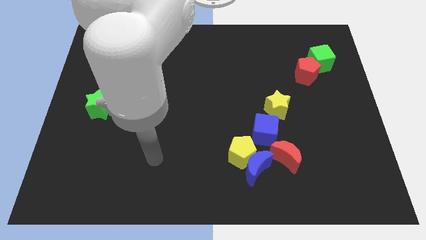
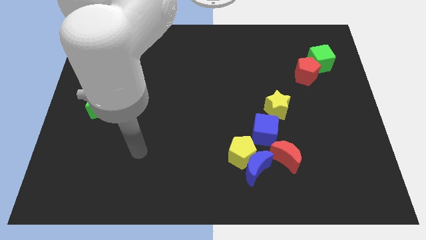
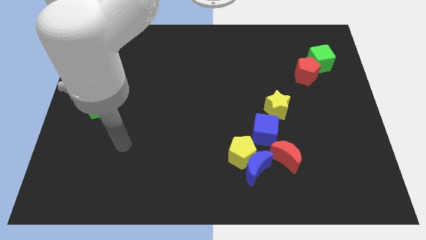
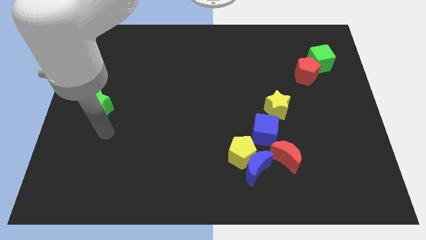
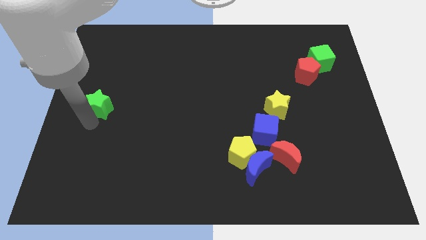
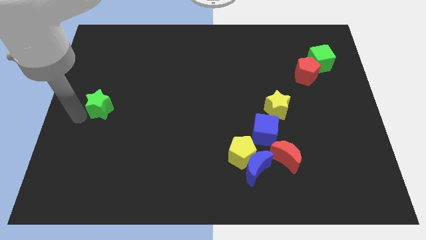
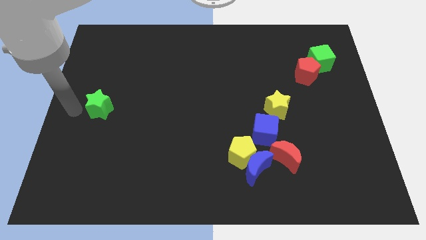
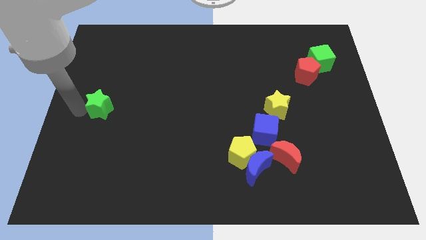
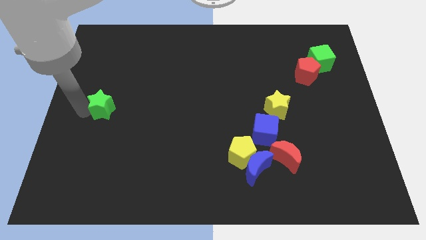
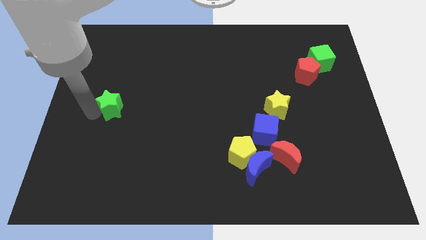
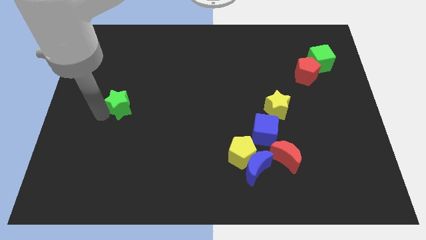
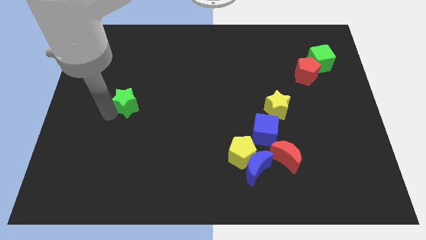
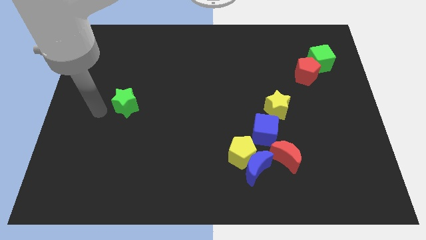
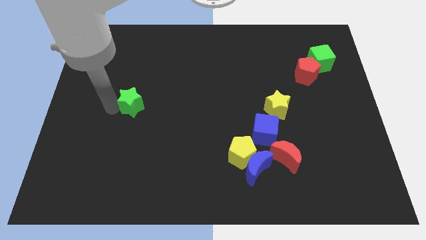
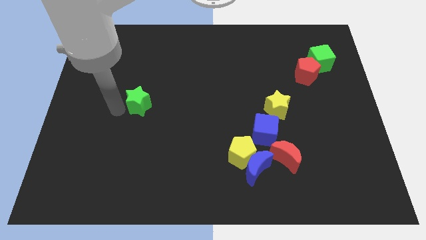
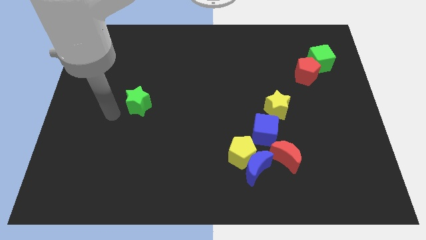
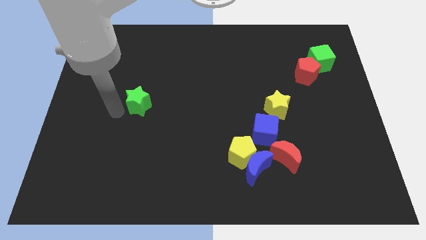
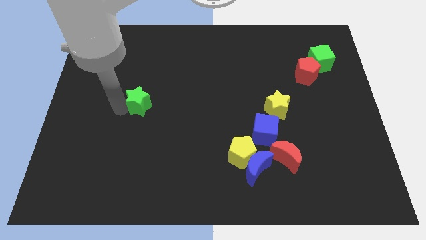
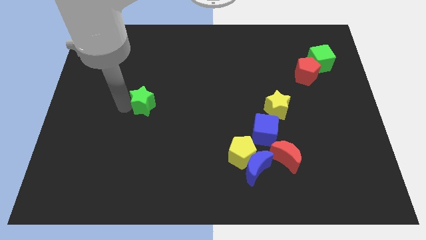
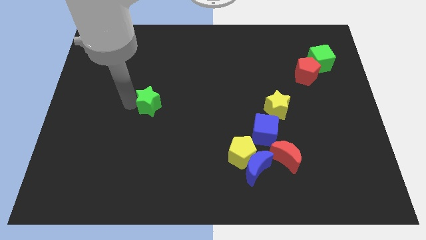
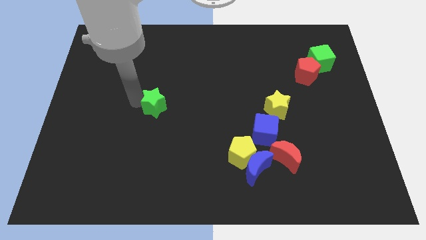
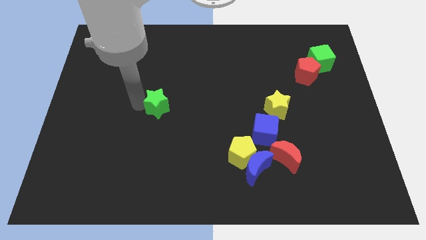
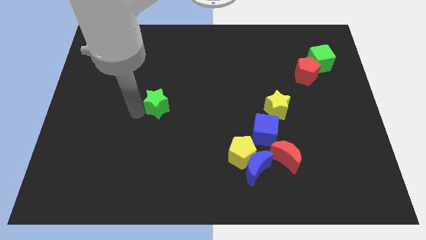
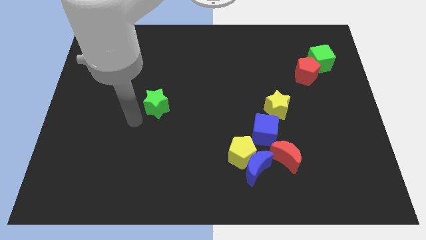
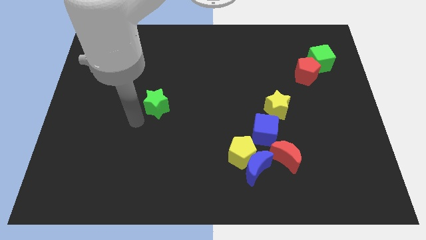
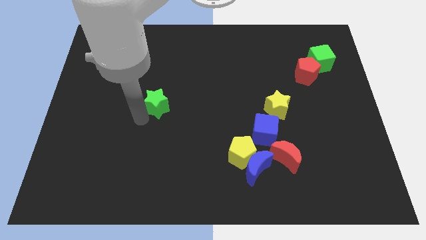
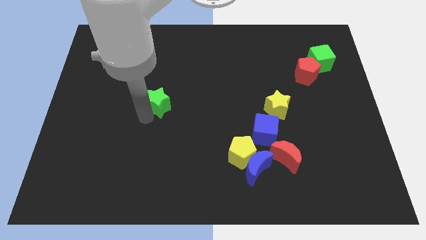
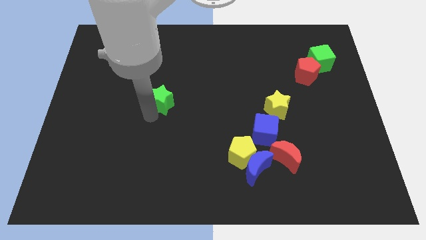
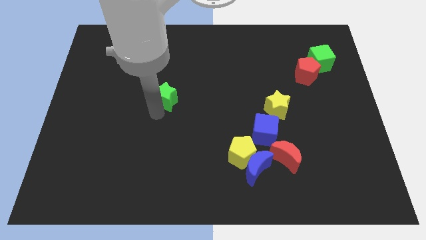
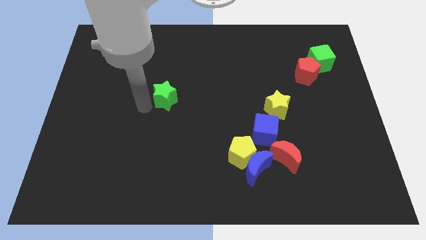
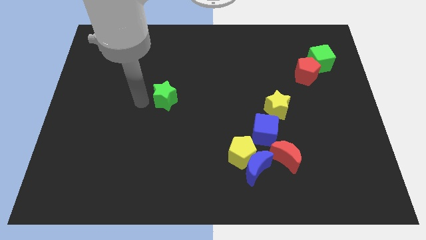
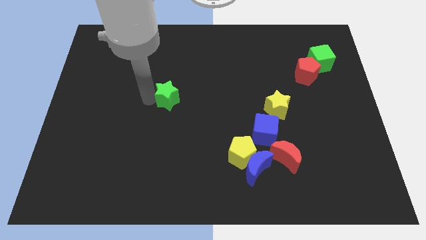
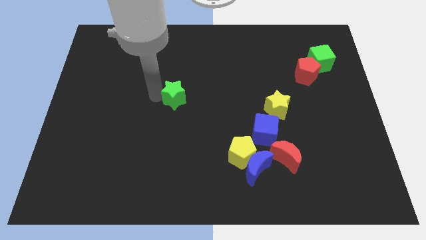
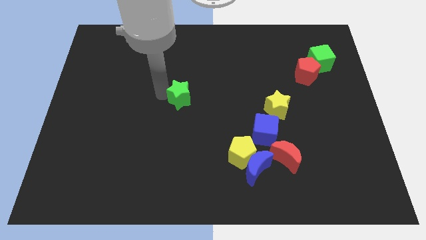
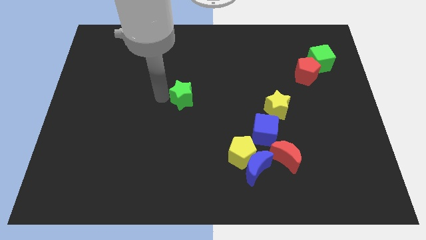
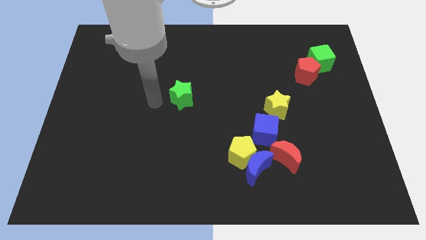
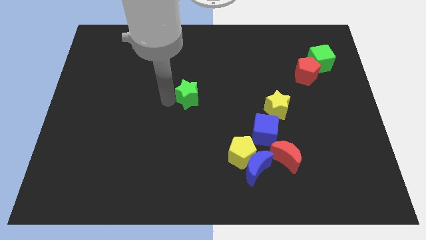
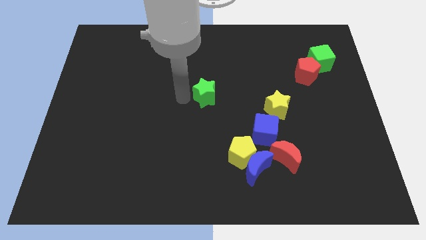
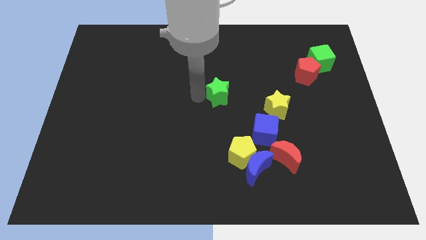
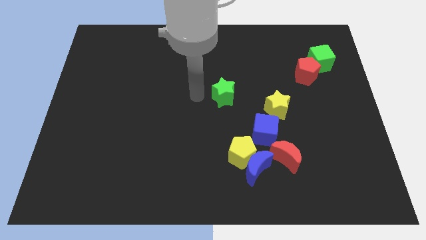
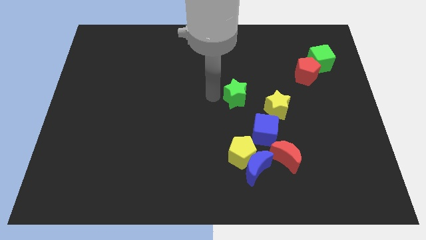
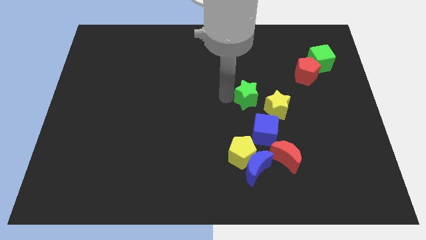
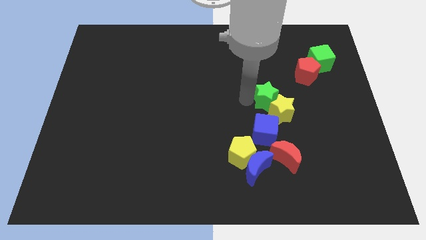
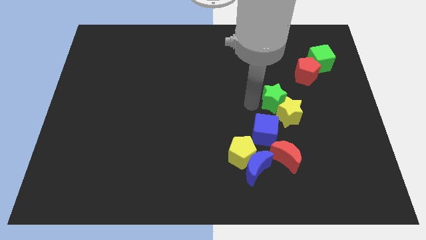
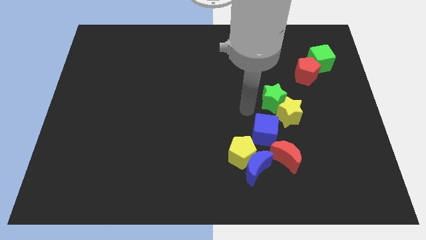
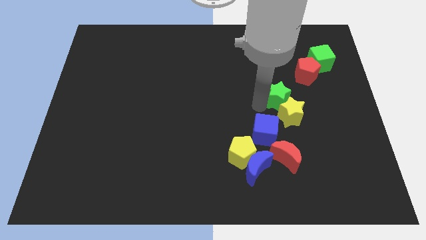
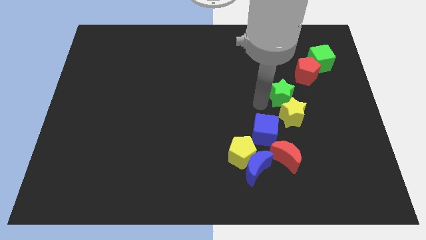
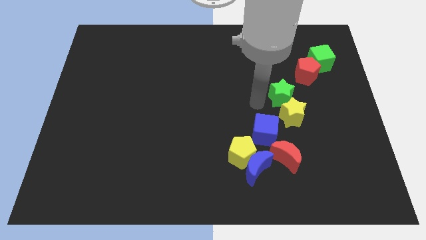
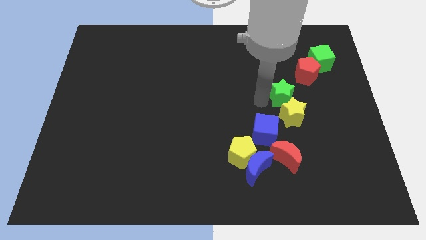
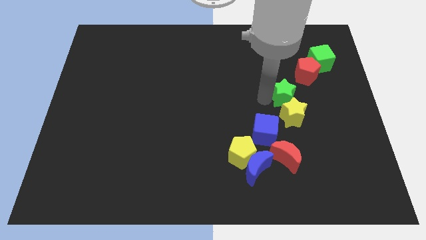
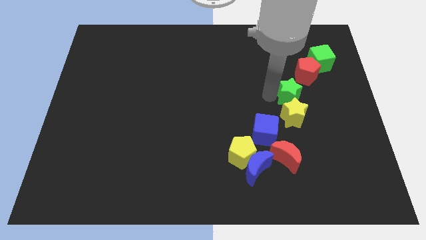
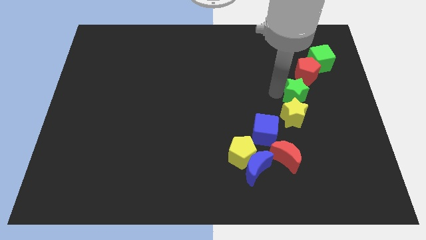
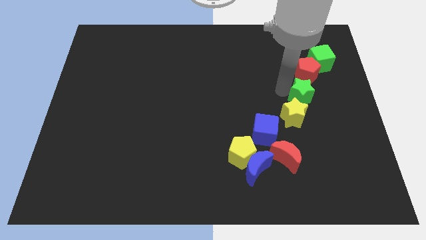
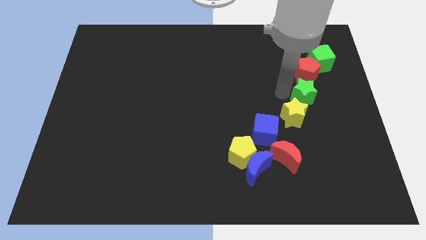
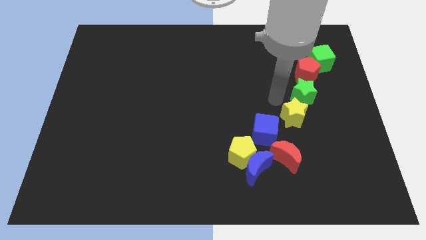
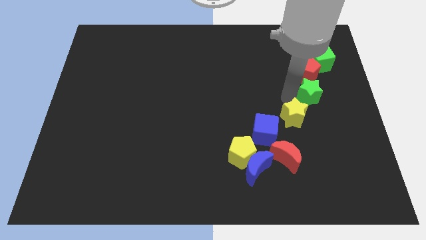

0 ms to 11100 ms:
put the green star to the bottom of the green cube

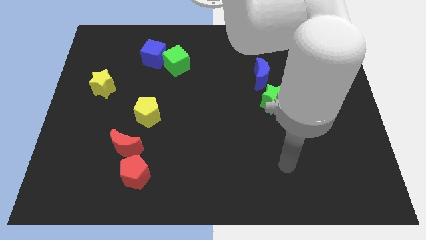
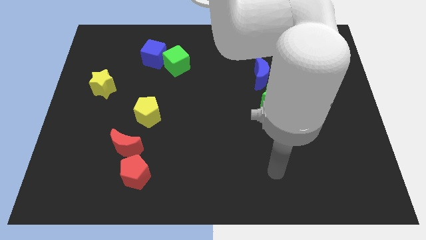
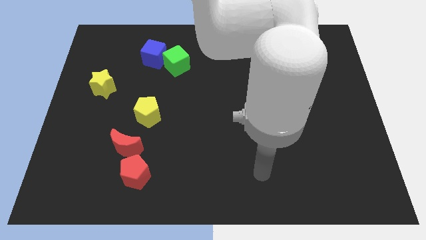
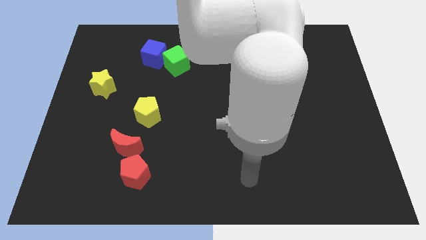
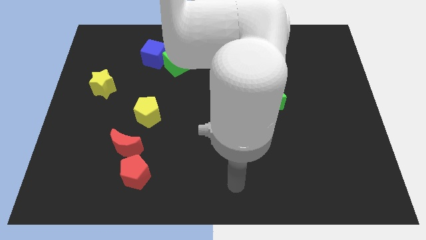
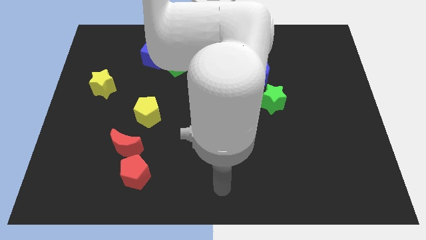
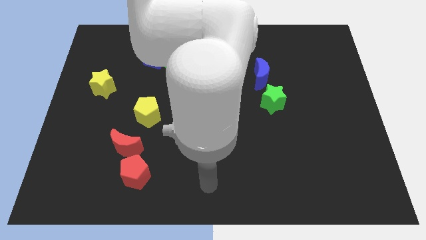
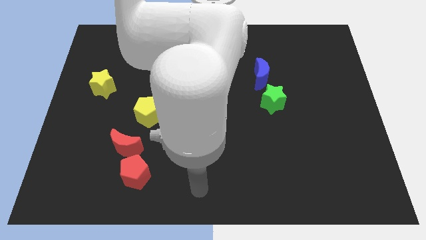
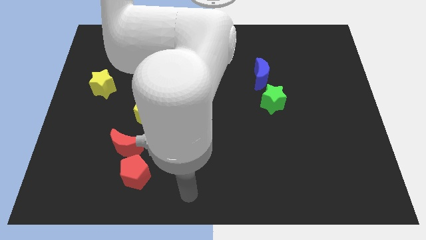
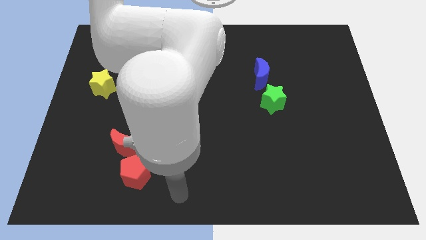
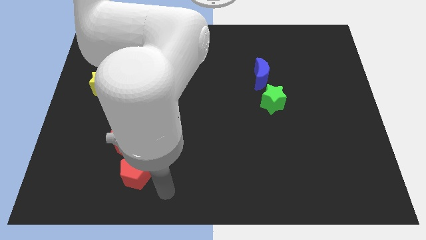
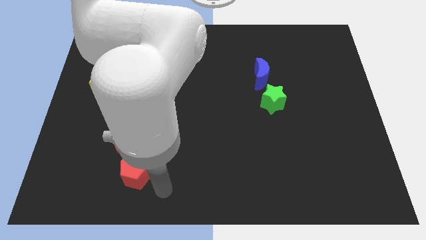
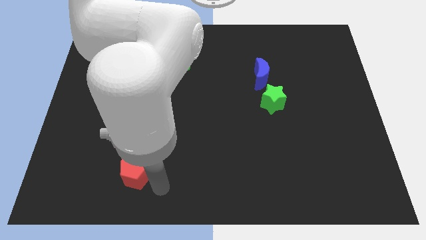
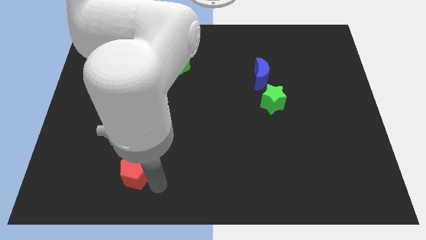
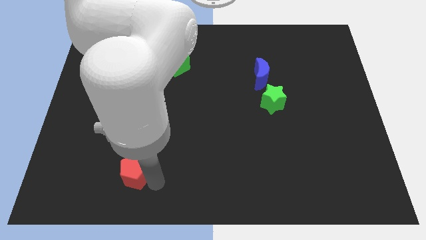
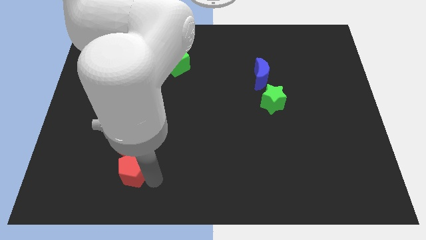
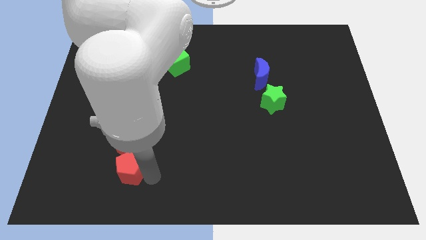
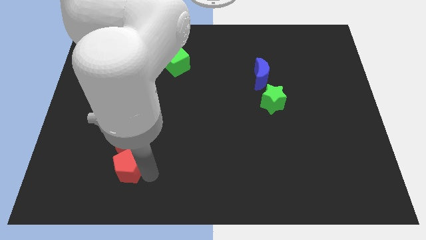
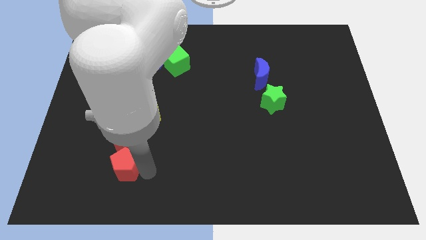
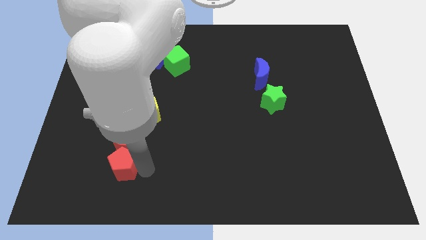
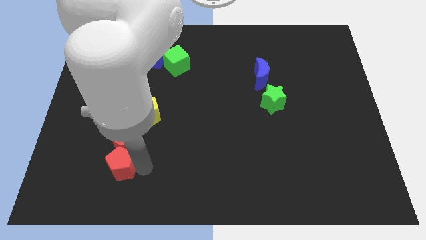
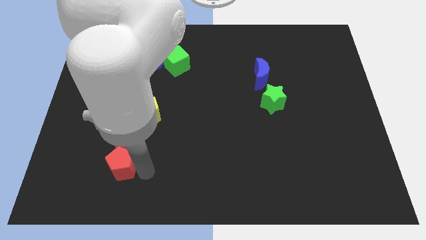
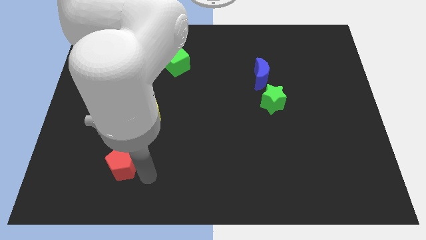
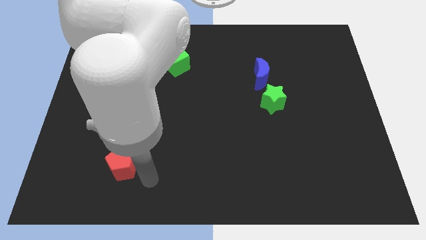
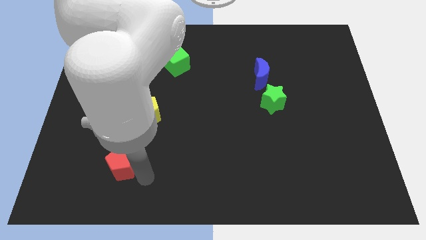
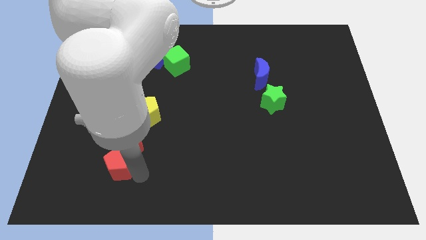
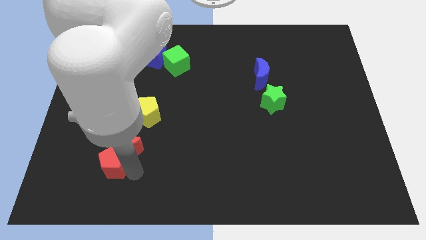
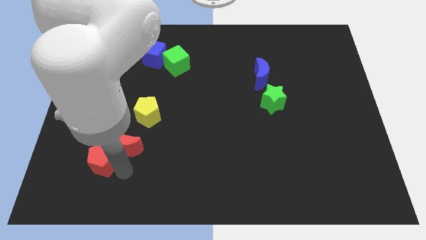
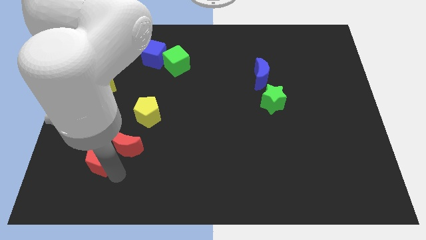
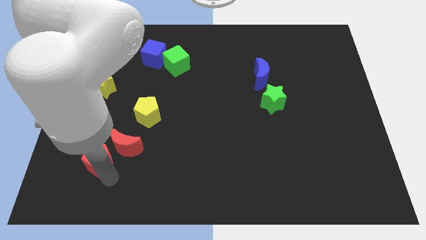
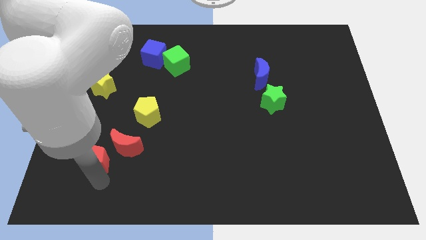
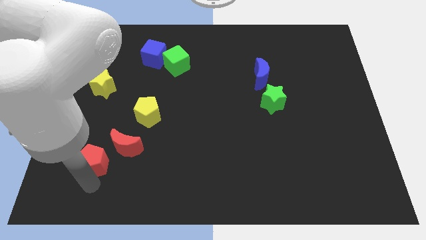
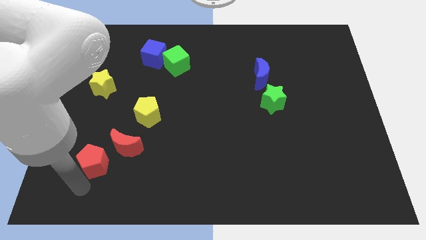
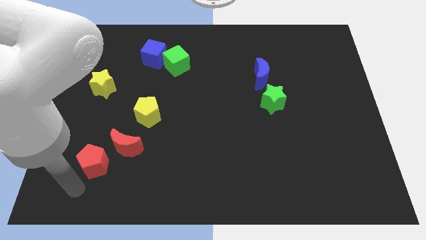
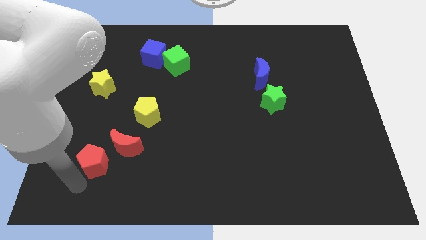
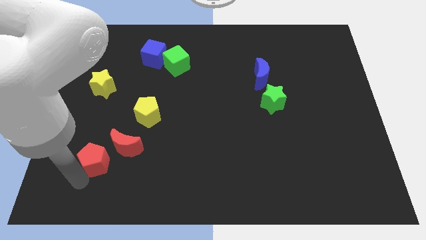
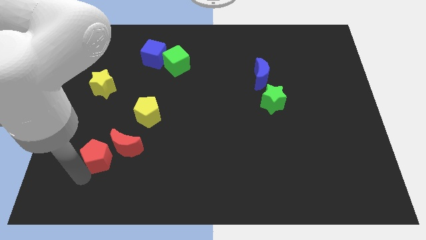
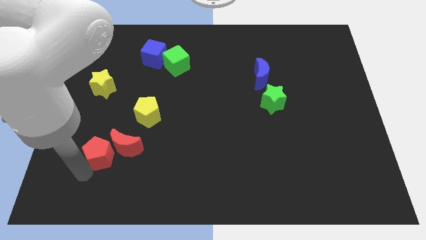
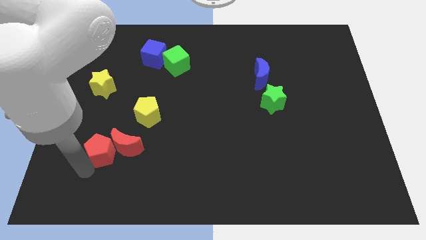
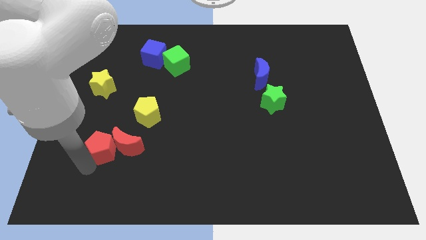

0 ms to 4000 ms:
push the red pentagon to the bottom left side of the yellow pentagon
